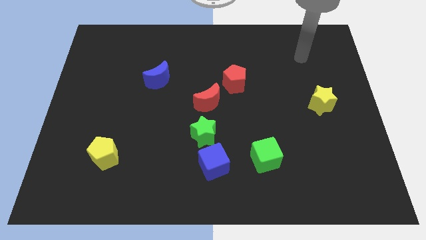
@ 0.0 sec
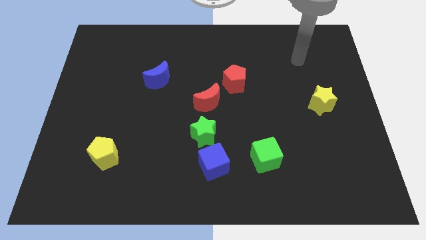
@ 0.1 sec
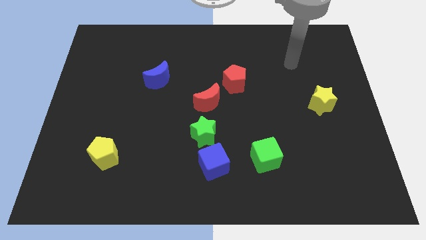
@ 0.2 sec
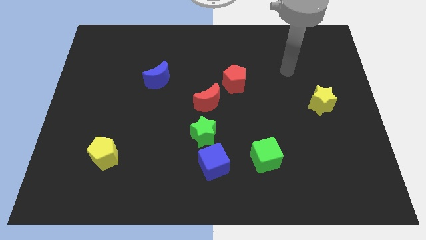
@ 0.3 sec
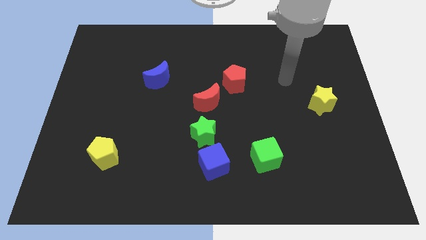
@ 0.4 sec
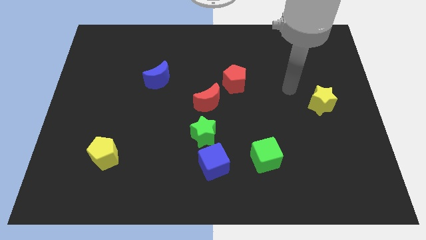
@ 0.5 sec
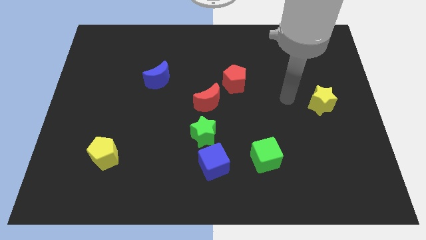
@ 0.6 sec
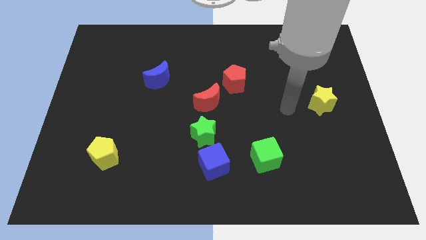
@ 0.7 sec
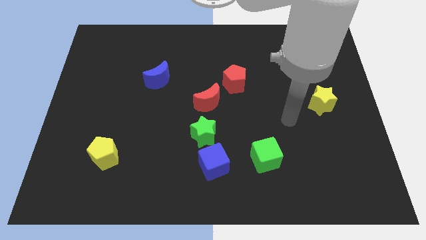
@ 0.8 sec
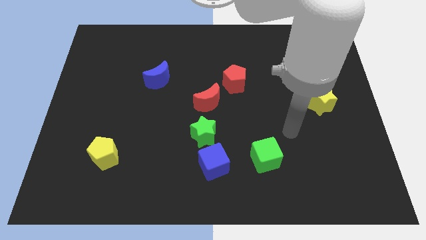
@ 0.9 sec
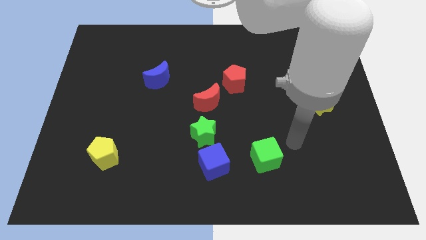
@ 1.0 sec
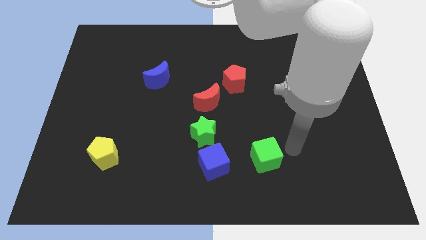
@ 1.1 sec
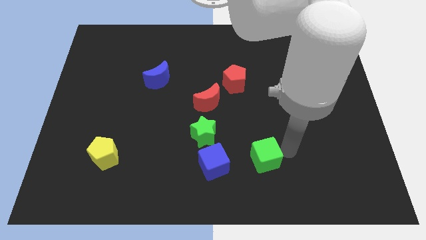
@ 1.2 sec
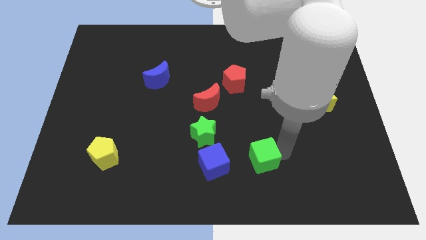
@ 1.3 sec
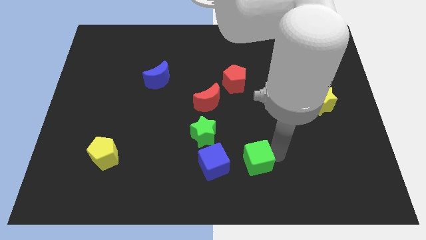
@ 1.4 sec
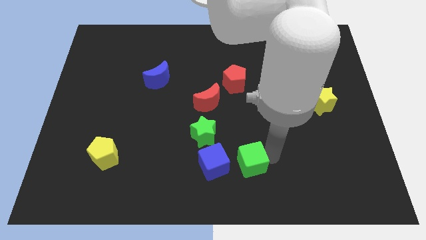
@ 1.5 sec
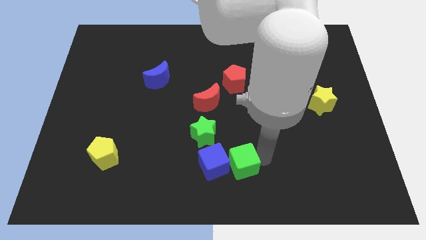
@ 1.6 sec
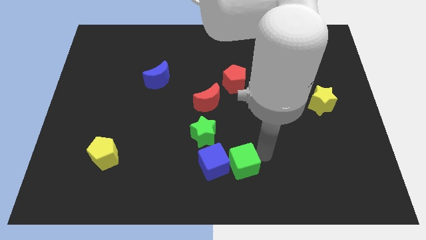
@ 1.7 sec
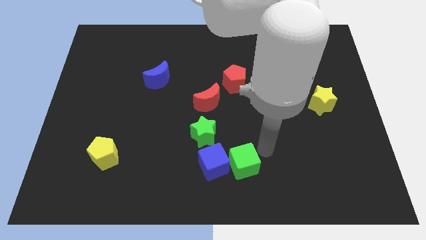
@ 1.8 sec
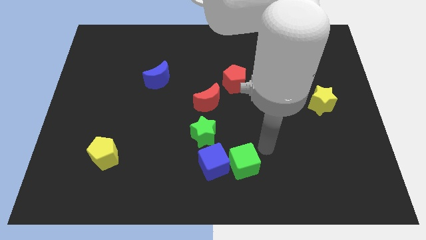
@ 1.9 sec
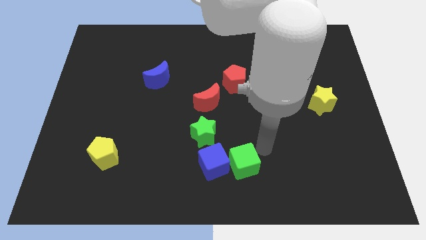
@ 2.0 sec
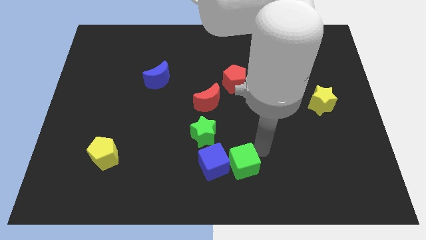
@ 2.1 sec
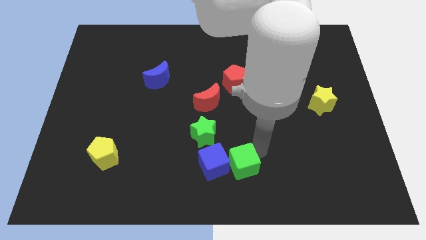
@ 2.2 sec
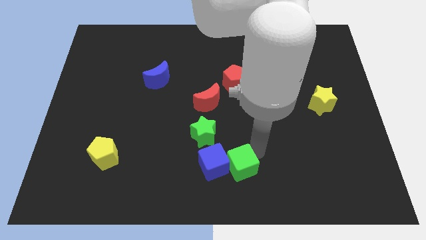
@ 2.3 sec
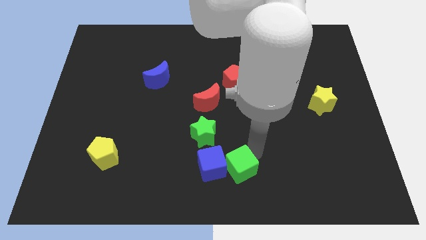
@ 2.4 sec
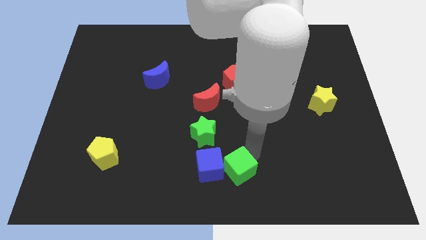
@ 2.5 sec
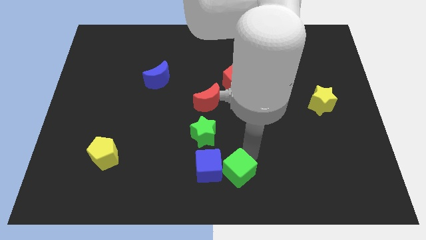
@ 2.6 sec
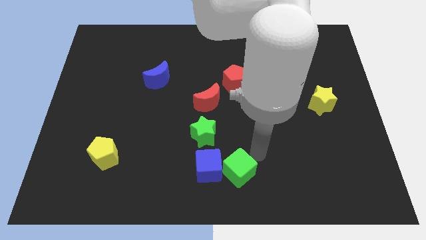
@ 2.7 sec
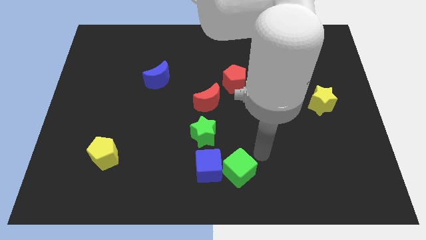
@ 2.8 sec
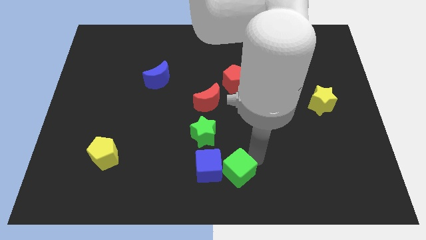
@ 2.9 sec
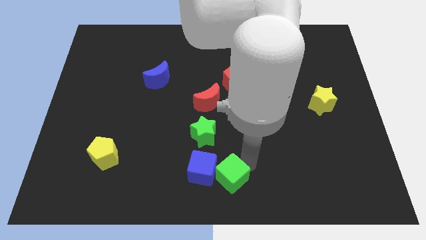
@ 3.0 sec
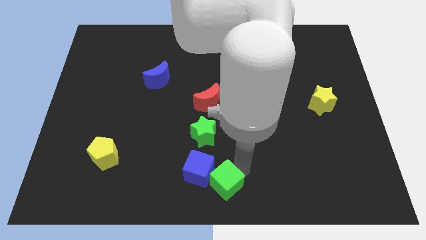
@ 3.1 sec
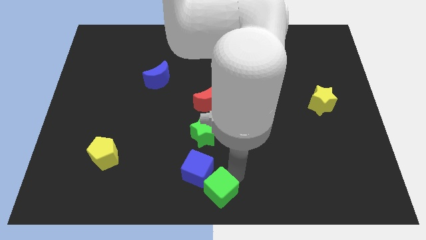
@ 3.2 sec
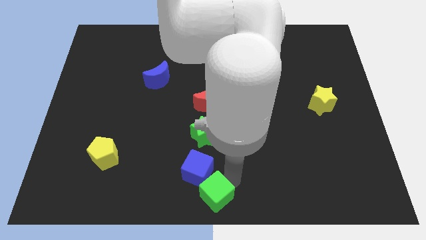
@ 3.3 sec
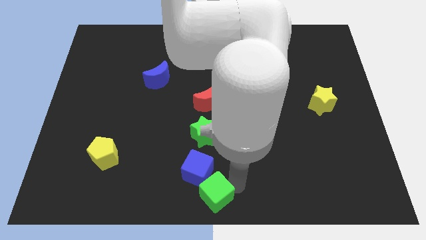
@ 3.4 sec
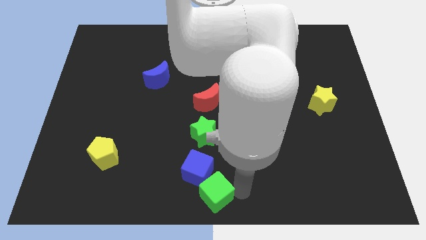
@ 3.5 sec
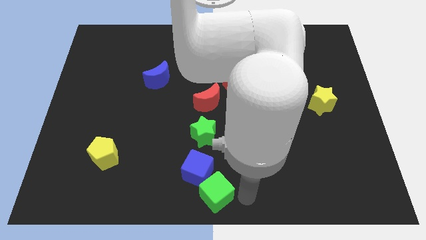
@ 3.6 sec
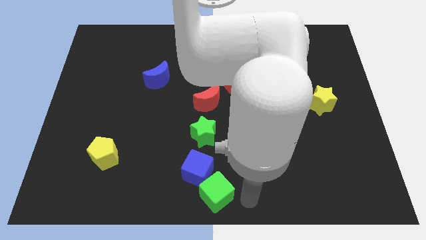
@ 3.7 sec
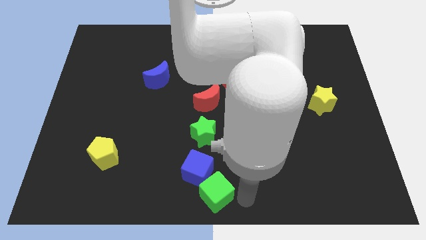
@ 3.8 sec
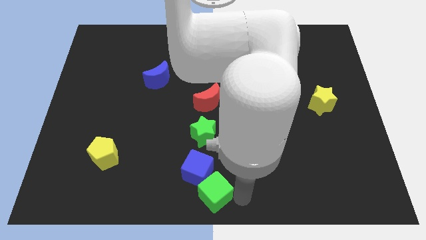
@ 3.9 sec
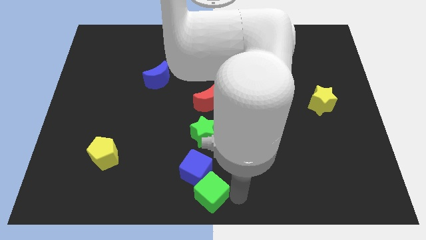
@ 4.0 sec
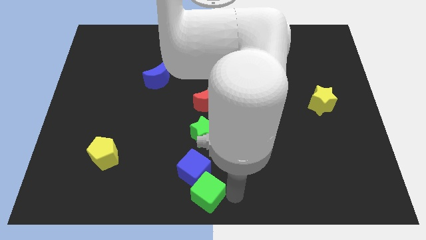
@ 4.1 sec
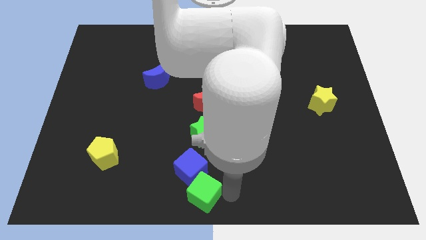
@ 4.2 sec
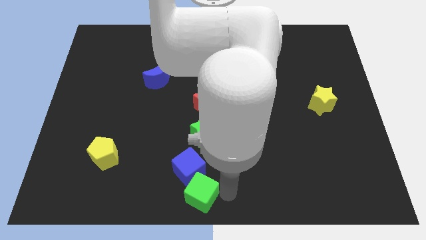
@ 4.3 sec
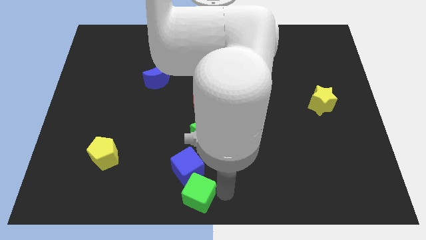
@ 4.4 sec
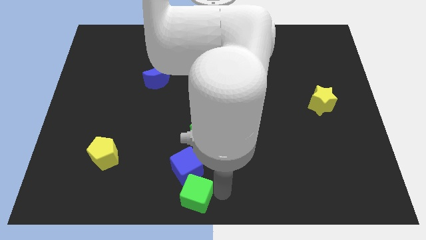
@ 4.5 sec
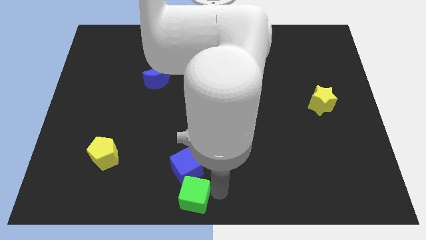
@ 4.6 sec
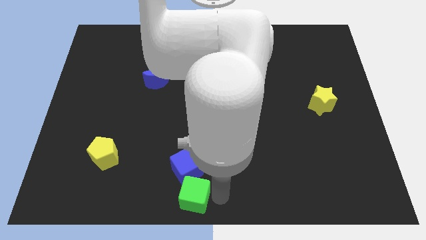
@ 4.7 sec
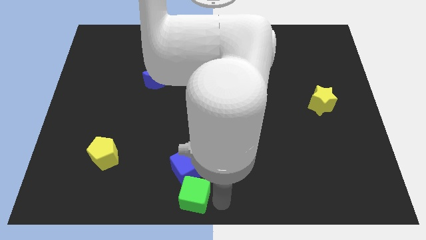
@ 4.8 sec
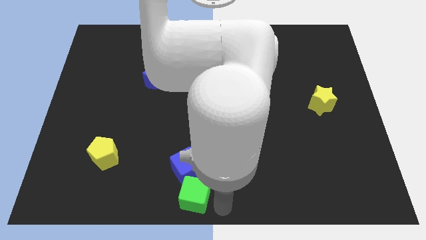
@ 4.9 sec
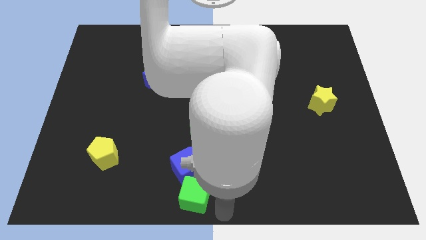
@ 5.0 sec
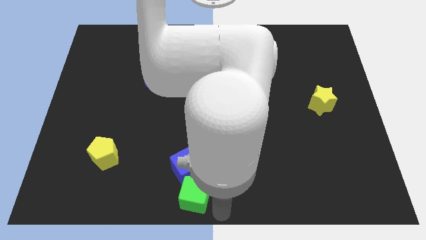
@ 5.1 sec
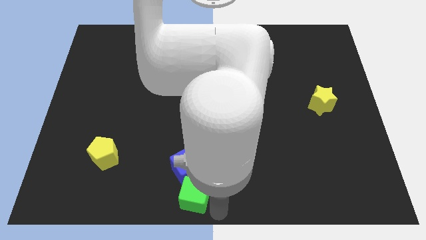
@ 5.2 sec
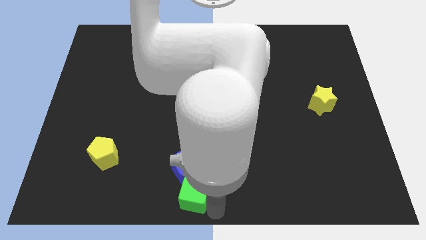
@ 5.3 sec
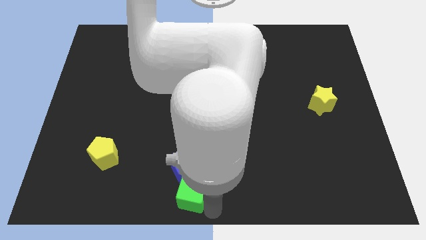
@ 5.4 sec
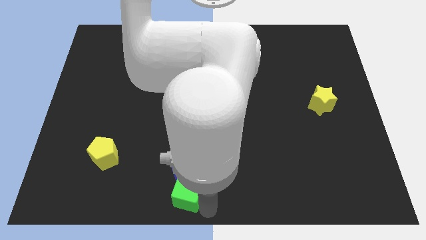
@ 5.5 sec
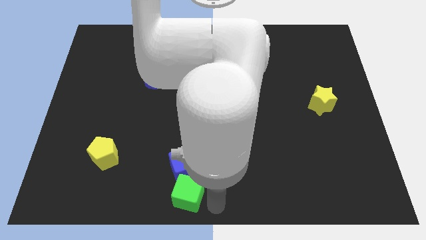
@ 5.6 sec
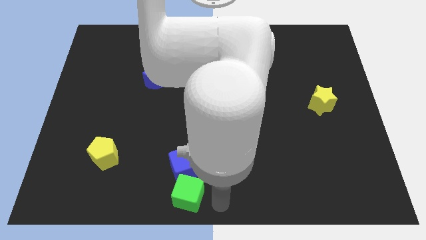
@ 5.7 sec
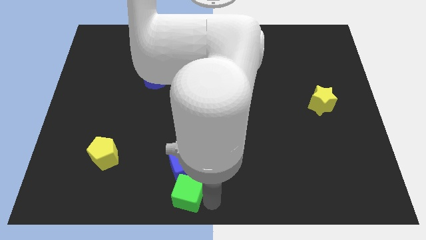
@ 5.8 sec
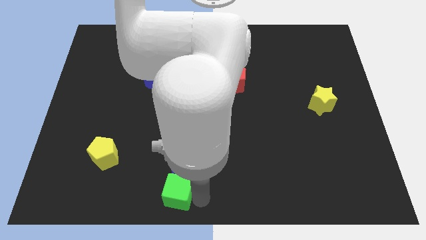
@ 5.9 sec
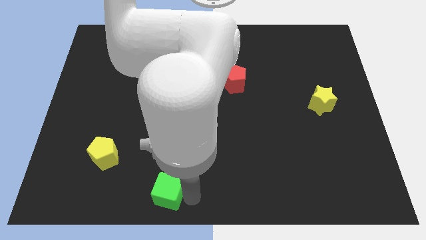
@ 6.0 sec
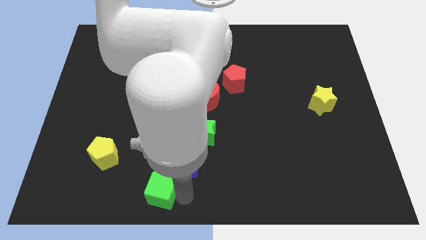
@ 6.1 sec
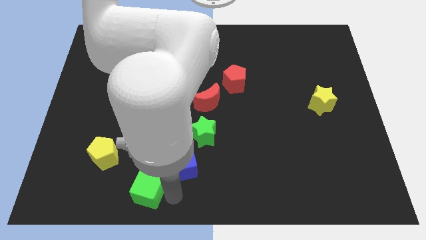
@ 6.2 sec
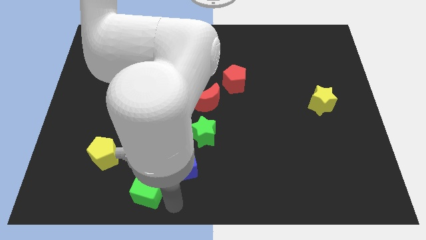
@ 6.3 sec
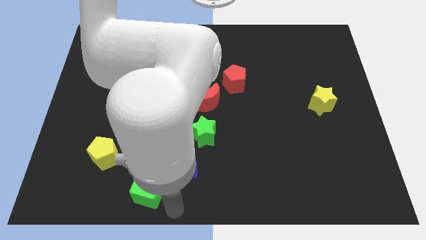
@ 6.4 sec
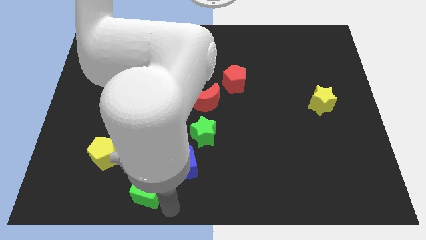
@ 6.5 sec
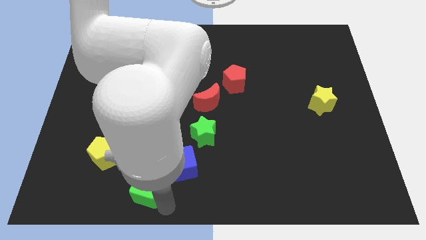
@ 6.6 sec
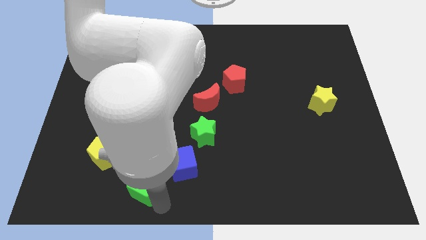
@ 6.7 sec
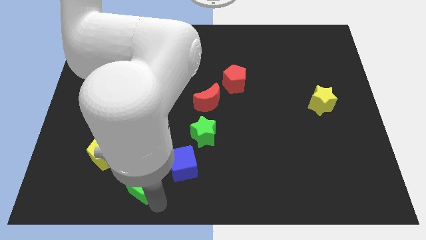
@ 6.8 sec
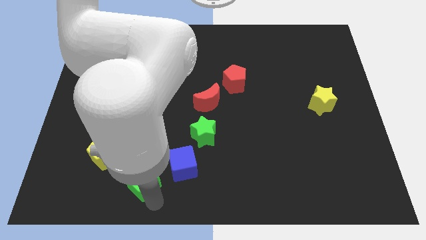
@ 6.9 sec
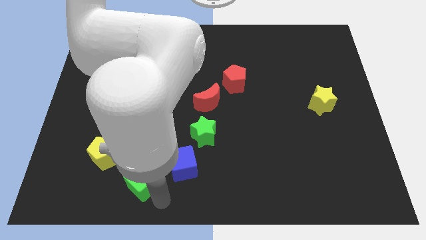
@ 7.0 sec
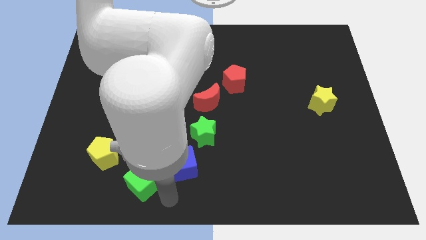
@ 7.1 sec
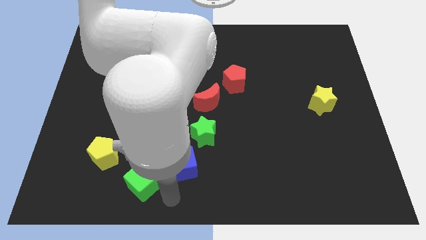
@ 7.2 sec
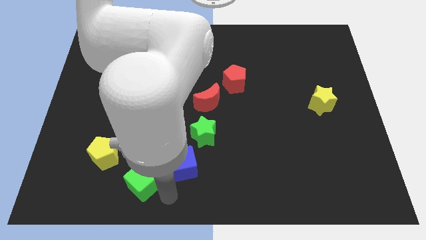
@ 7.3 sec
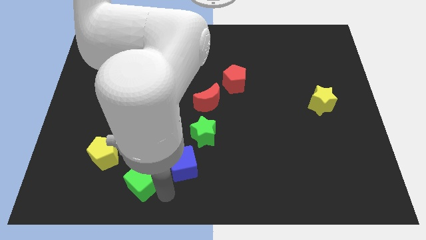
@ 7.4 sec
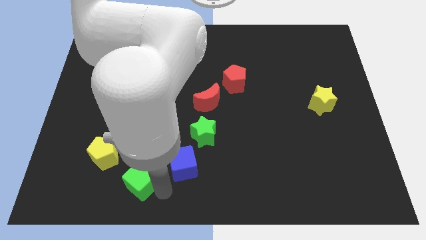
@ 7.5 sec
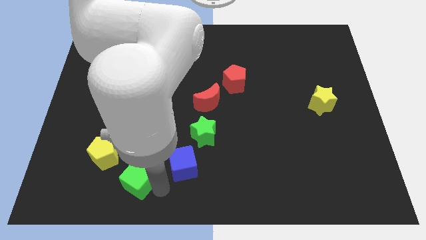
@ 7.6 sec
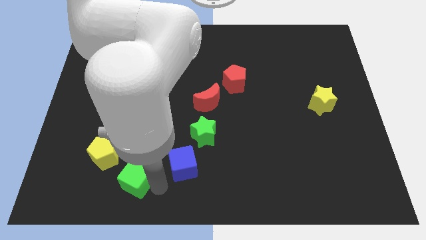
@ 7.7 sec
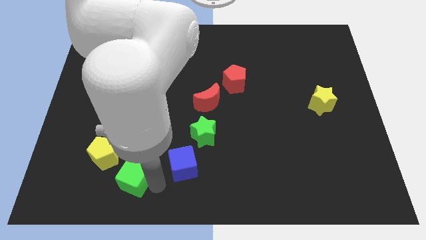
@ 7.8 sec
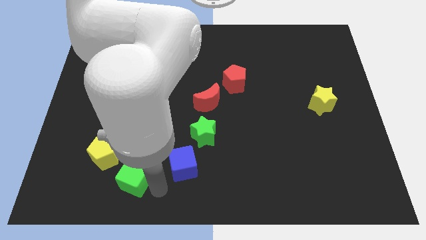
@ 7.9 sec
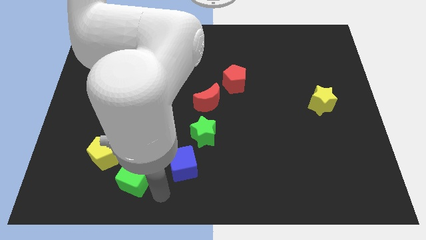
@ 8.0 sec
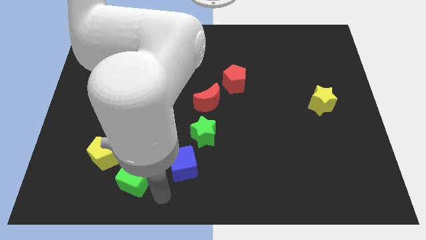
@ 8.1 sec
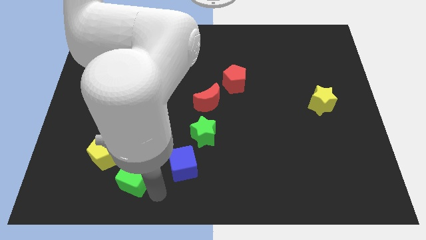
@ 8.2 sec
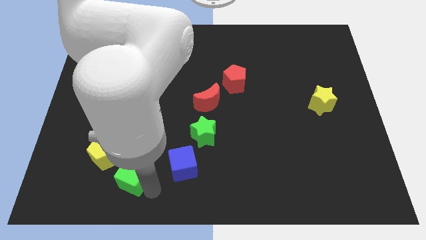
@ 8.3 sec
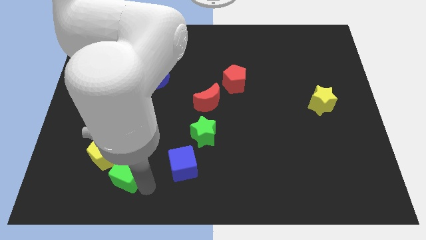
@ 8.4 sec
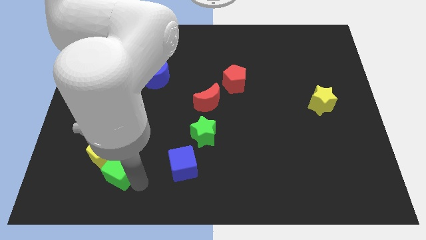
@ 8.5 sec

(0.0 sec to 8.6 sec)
move the green cube next to the yellow pentagon
